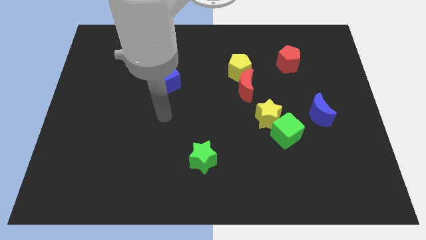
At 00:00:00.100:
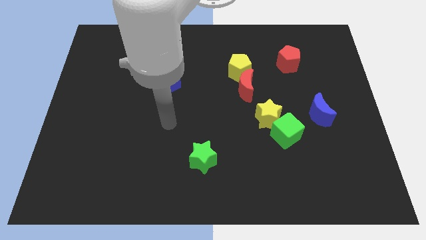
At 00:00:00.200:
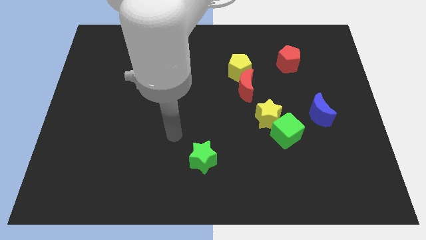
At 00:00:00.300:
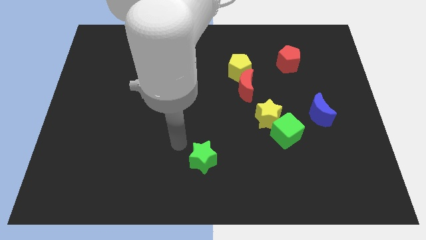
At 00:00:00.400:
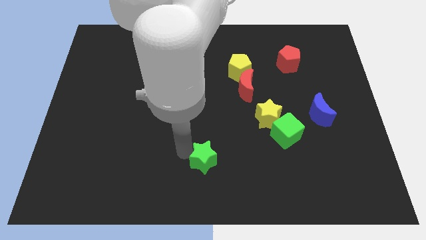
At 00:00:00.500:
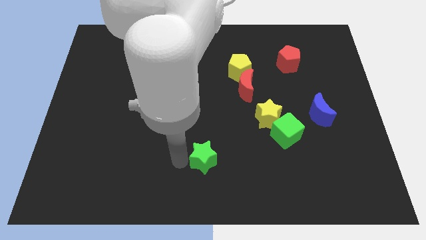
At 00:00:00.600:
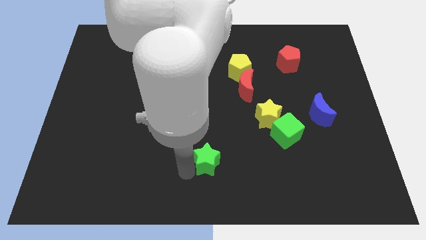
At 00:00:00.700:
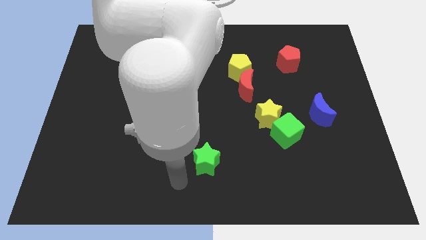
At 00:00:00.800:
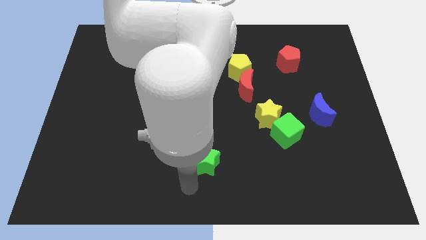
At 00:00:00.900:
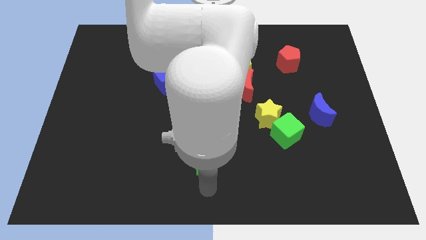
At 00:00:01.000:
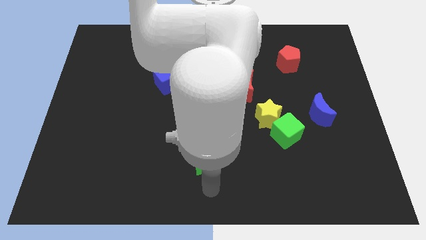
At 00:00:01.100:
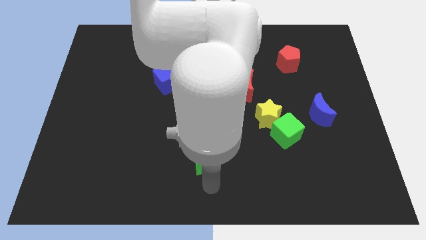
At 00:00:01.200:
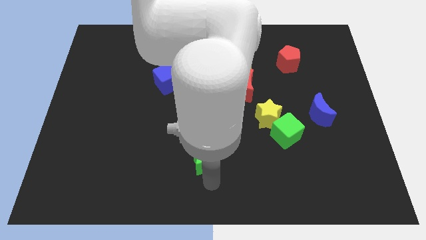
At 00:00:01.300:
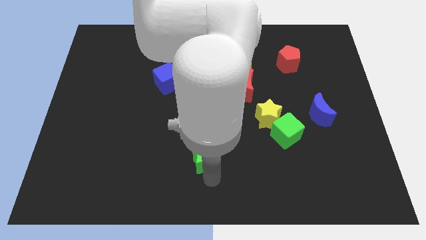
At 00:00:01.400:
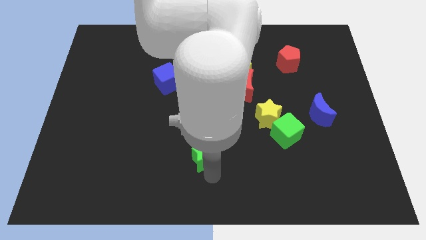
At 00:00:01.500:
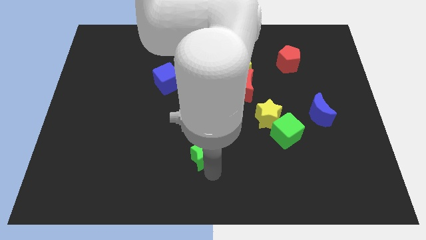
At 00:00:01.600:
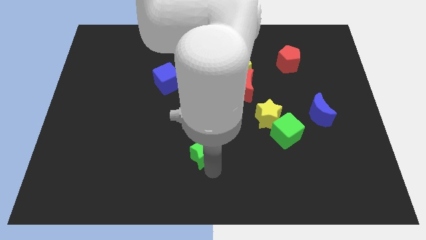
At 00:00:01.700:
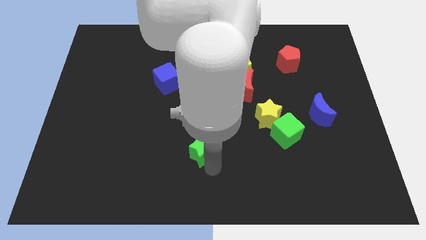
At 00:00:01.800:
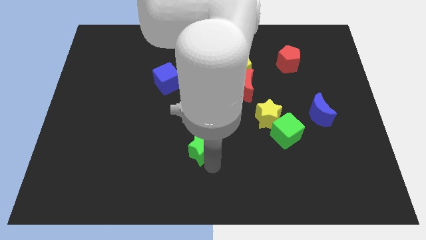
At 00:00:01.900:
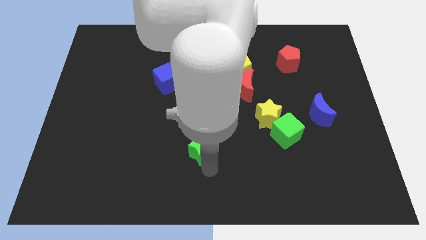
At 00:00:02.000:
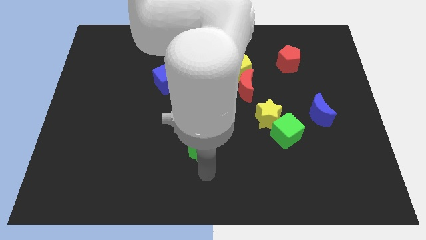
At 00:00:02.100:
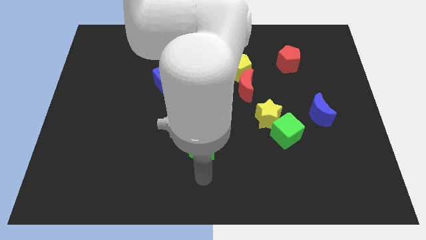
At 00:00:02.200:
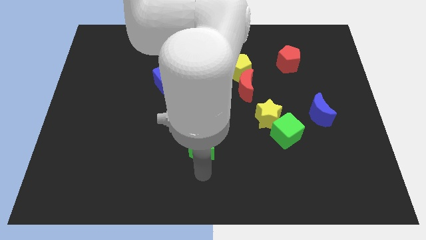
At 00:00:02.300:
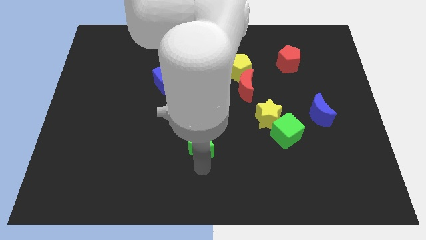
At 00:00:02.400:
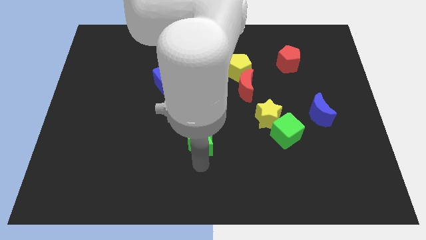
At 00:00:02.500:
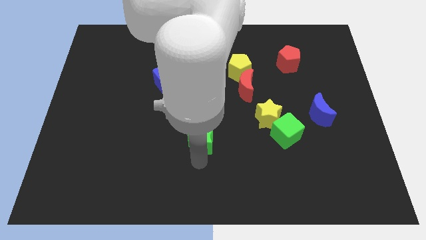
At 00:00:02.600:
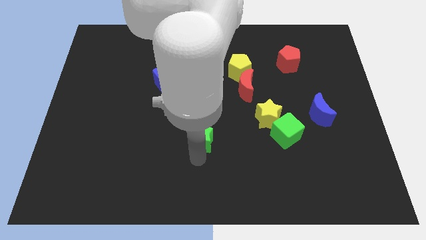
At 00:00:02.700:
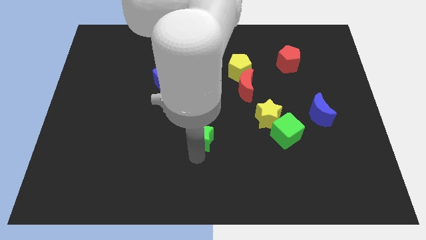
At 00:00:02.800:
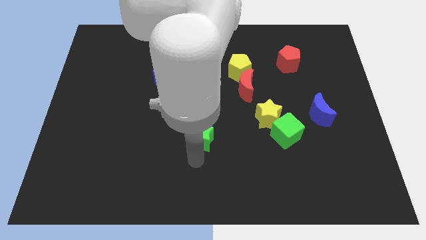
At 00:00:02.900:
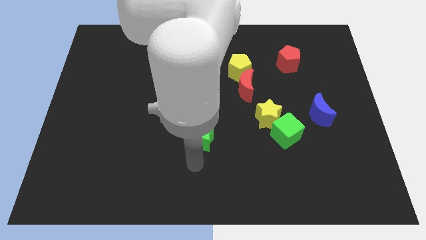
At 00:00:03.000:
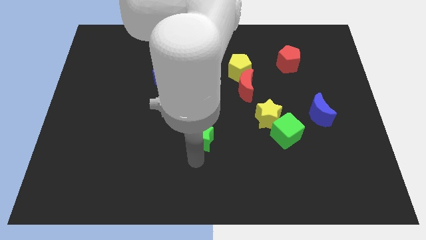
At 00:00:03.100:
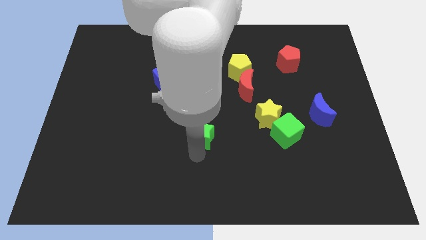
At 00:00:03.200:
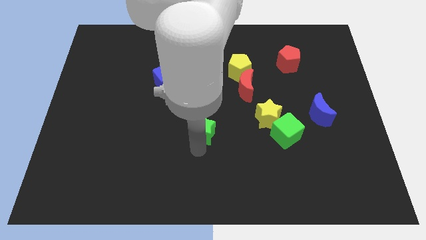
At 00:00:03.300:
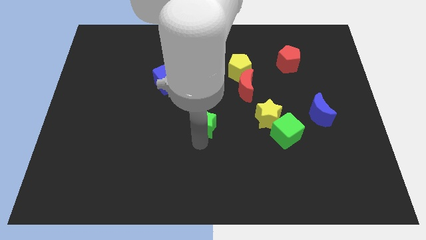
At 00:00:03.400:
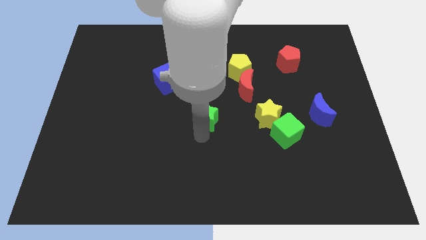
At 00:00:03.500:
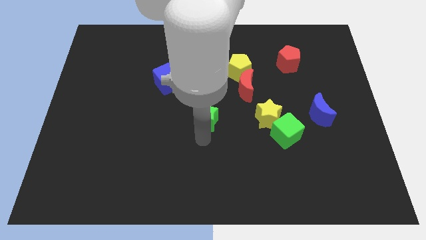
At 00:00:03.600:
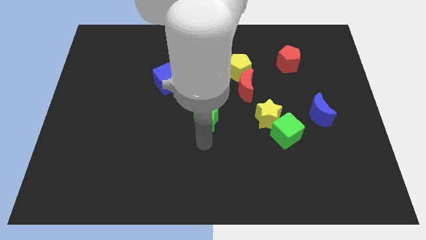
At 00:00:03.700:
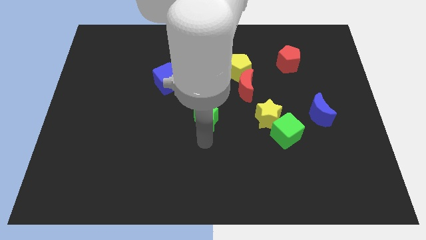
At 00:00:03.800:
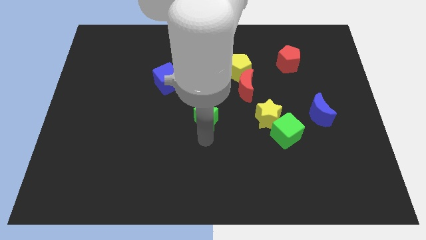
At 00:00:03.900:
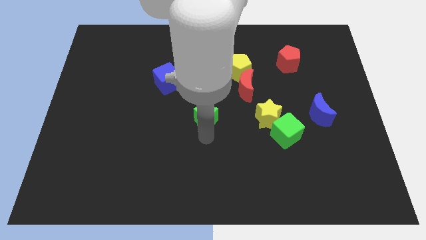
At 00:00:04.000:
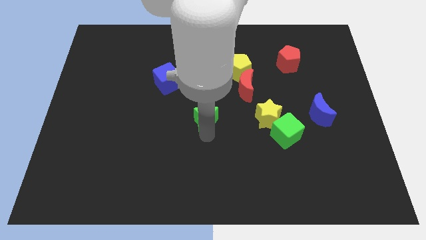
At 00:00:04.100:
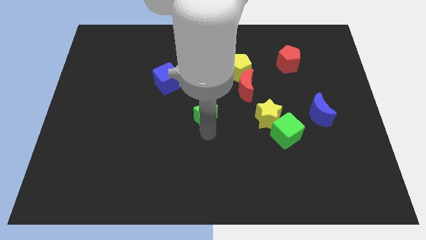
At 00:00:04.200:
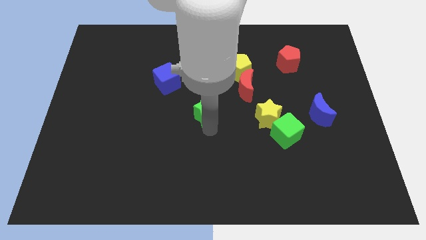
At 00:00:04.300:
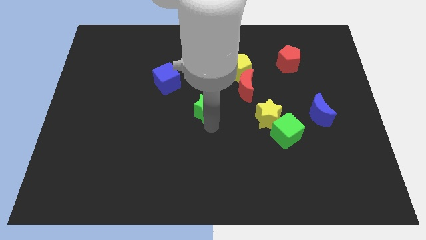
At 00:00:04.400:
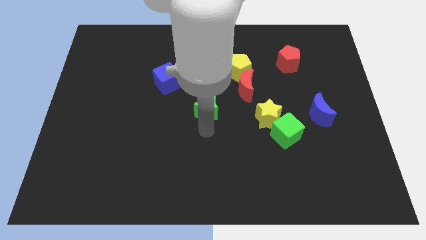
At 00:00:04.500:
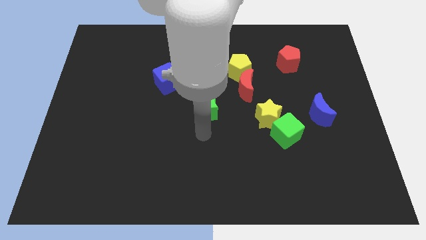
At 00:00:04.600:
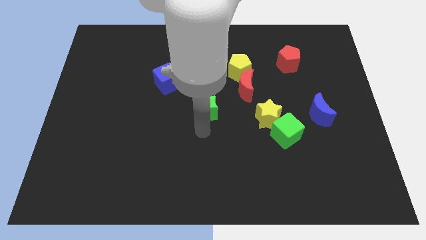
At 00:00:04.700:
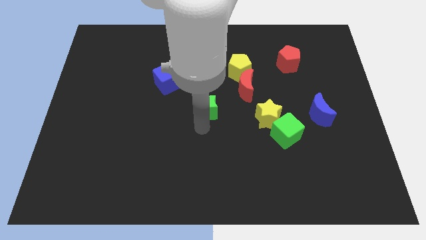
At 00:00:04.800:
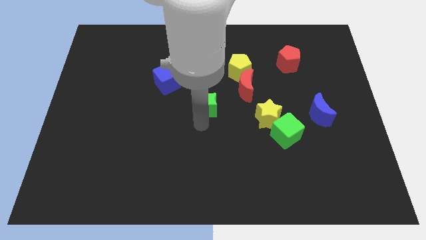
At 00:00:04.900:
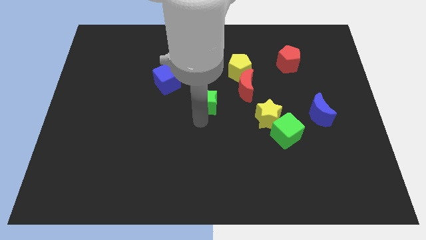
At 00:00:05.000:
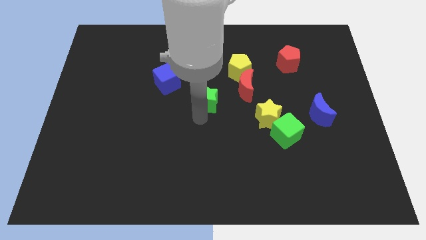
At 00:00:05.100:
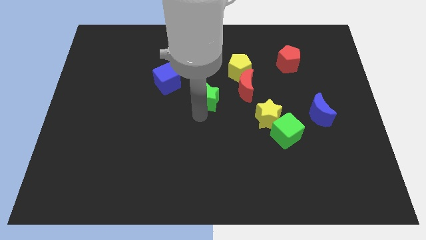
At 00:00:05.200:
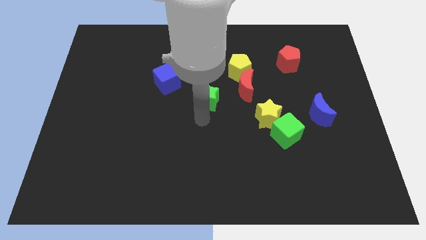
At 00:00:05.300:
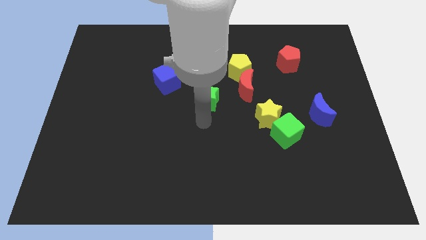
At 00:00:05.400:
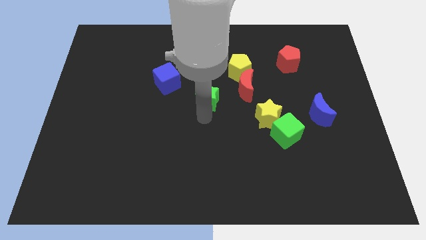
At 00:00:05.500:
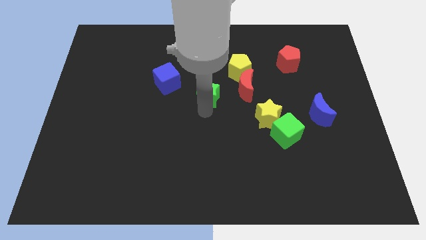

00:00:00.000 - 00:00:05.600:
push the green star right of the blue cube

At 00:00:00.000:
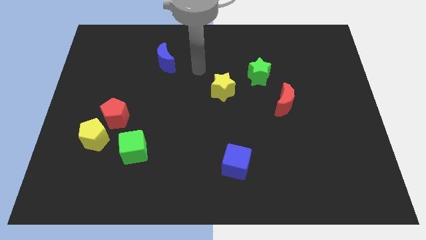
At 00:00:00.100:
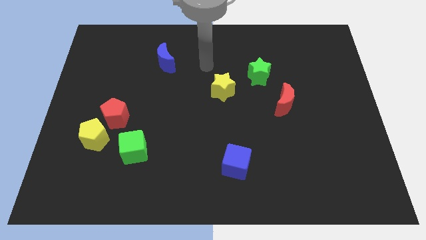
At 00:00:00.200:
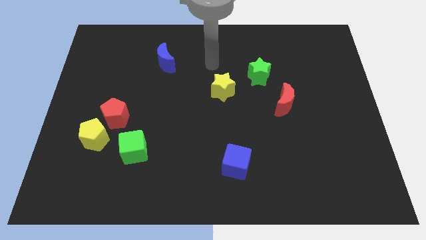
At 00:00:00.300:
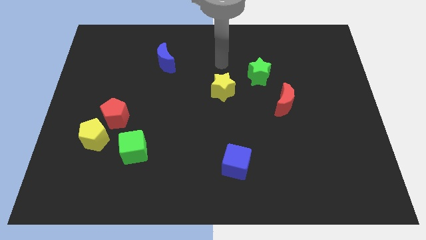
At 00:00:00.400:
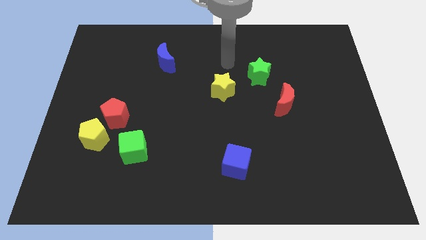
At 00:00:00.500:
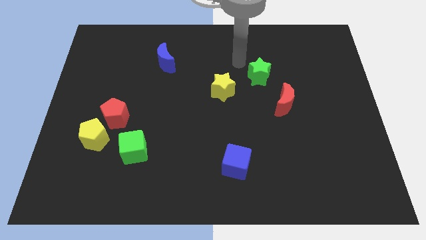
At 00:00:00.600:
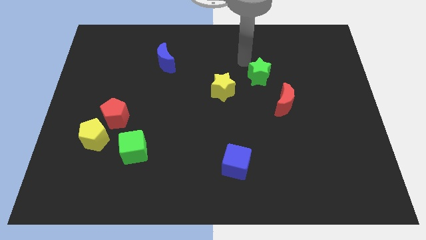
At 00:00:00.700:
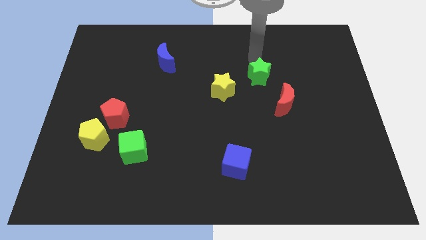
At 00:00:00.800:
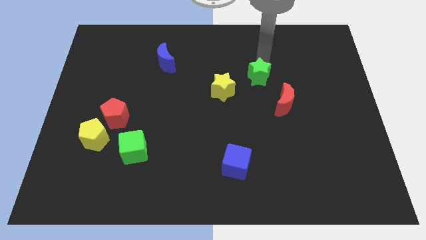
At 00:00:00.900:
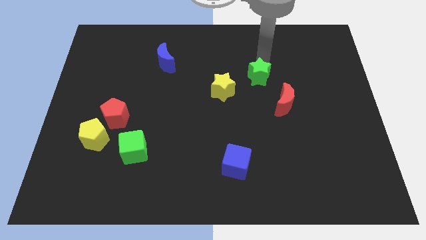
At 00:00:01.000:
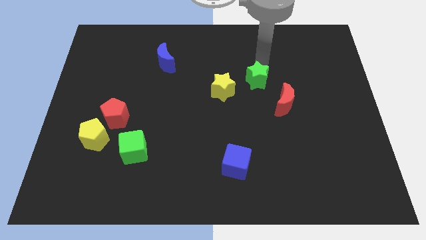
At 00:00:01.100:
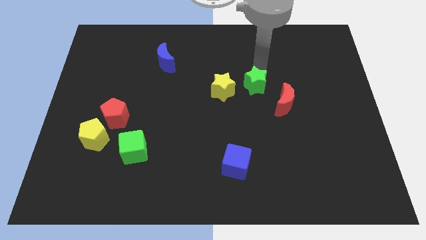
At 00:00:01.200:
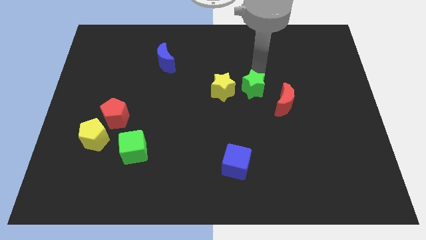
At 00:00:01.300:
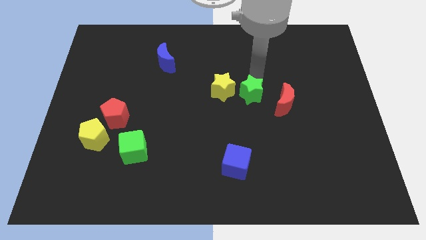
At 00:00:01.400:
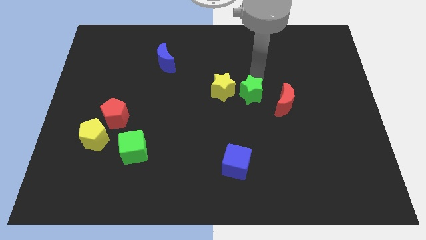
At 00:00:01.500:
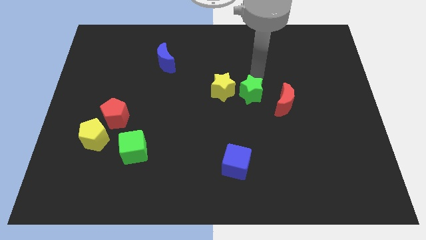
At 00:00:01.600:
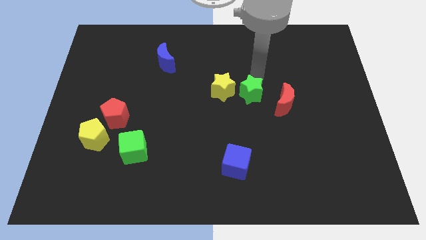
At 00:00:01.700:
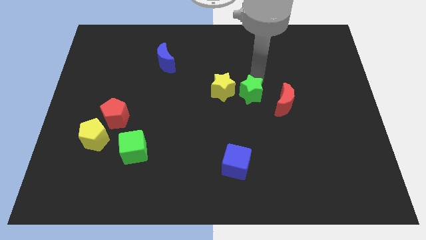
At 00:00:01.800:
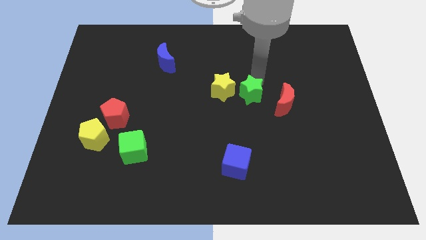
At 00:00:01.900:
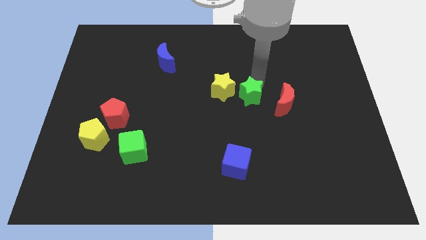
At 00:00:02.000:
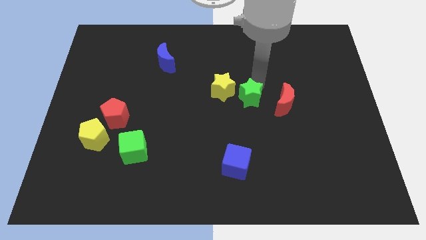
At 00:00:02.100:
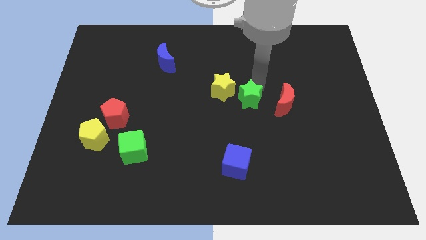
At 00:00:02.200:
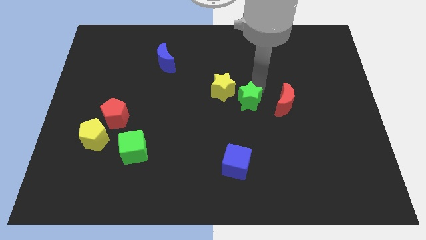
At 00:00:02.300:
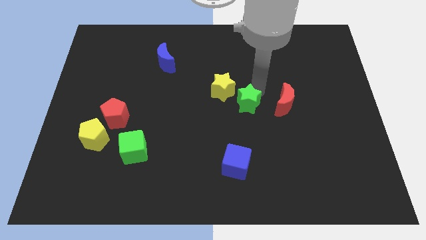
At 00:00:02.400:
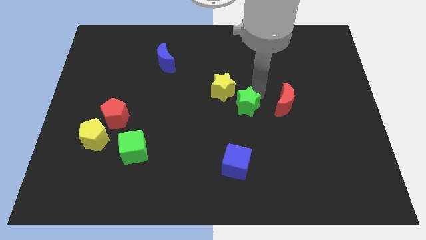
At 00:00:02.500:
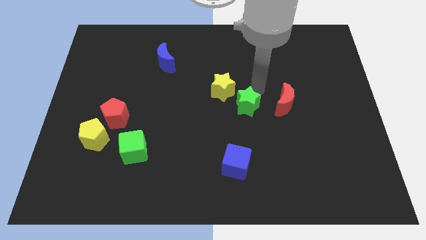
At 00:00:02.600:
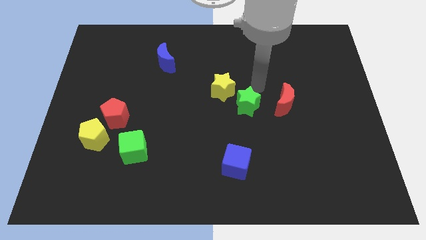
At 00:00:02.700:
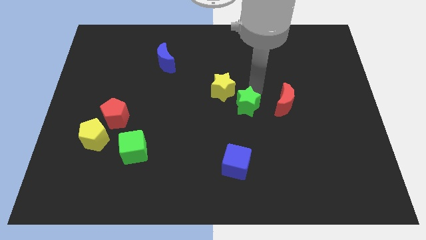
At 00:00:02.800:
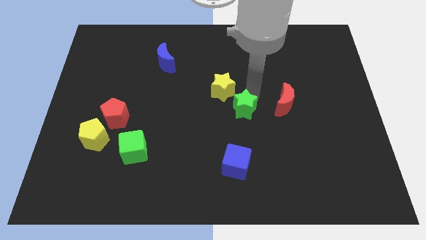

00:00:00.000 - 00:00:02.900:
move the green star to the top of the blue cube

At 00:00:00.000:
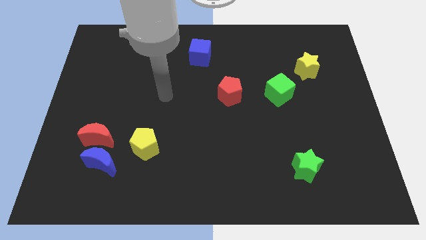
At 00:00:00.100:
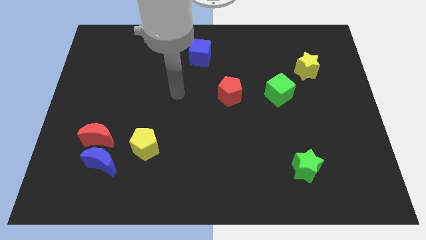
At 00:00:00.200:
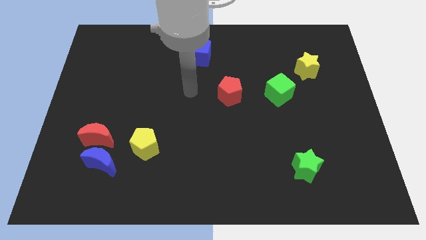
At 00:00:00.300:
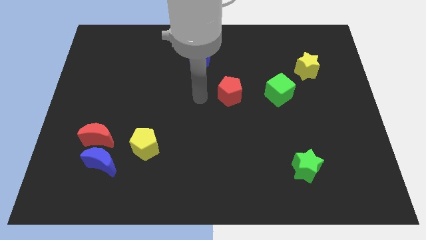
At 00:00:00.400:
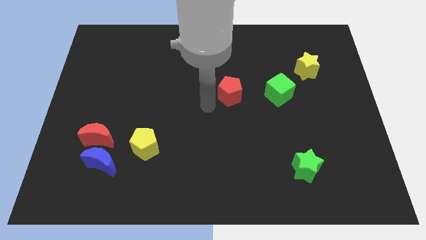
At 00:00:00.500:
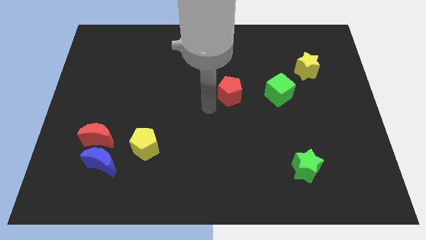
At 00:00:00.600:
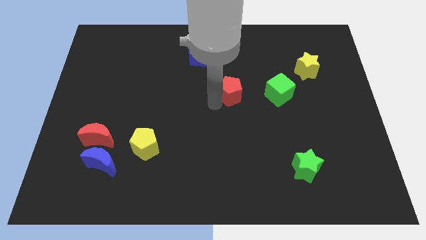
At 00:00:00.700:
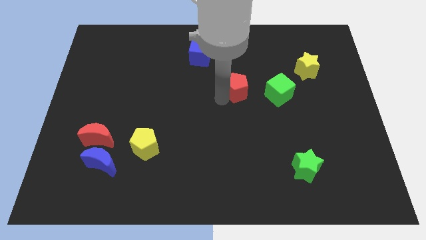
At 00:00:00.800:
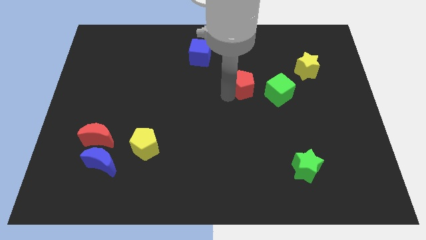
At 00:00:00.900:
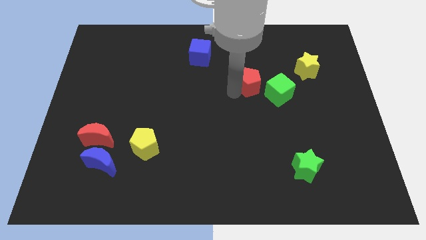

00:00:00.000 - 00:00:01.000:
push the red pentagon to the top left of the green cube
